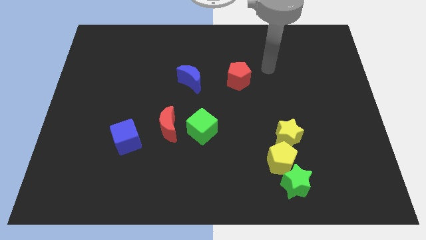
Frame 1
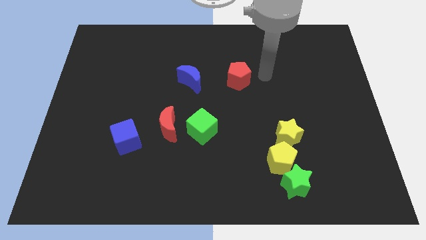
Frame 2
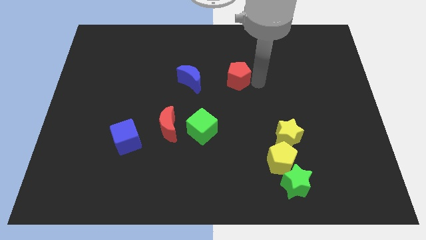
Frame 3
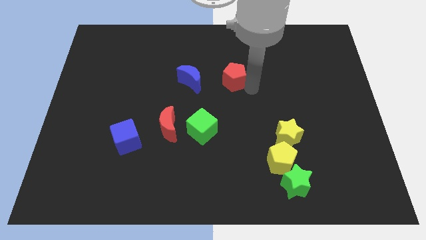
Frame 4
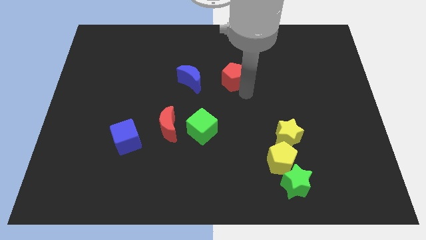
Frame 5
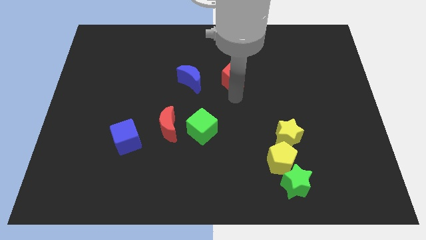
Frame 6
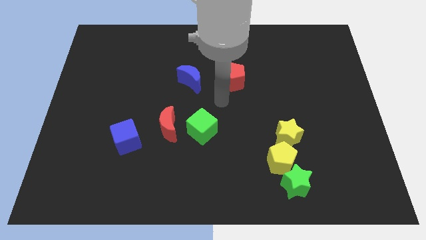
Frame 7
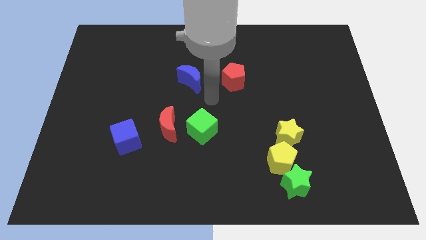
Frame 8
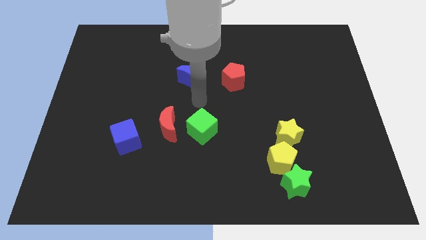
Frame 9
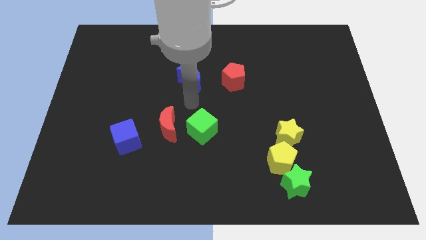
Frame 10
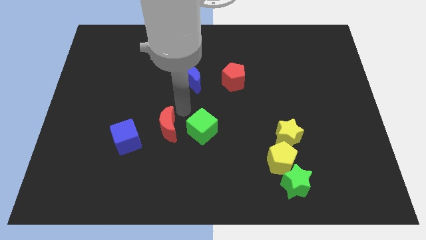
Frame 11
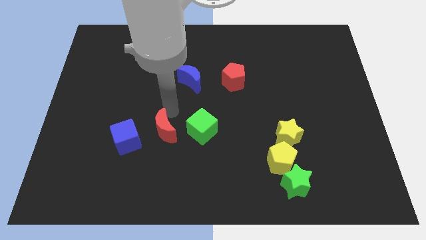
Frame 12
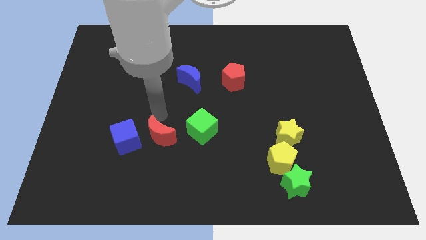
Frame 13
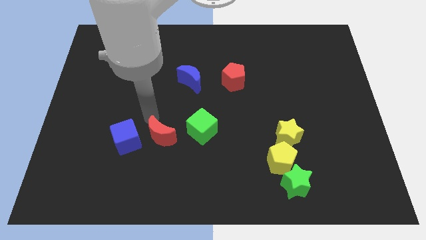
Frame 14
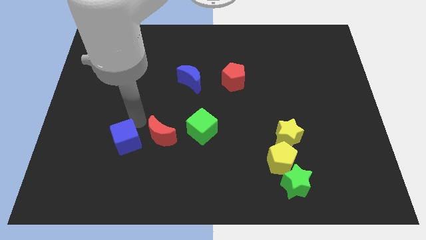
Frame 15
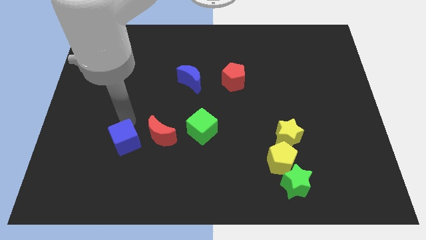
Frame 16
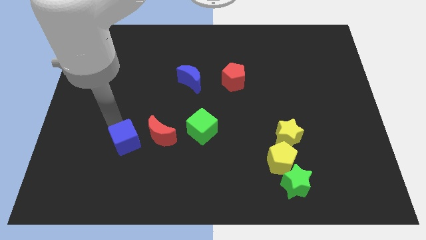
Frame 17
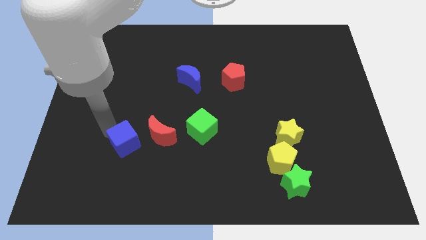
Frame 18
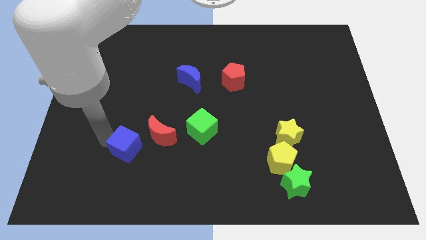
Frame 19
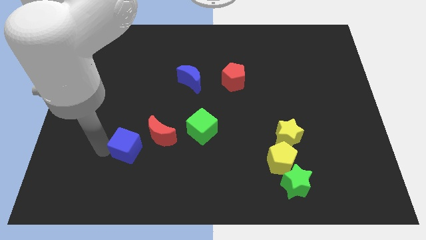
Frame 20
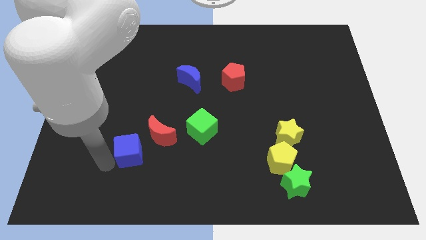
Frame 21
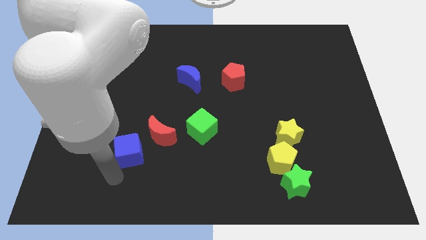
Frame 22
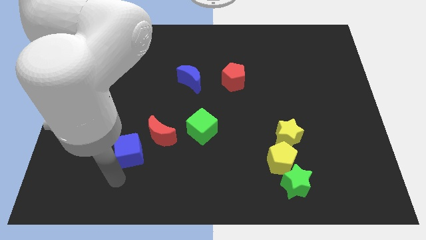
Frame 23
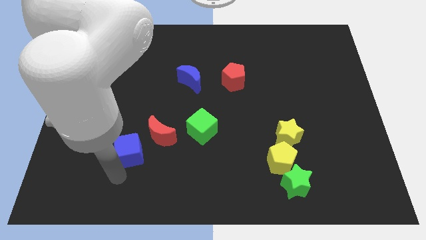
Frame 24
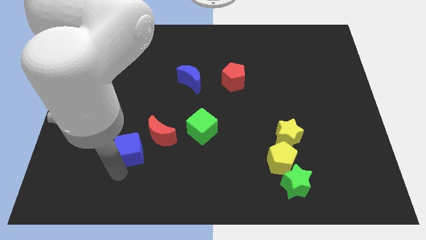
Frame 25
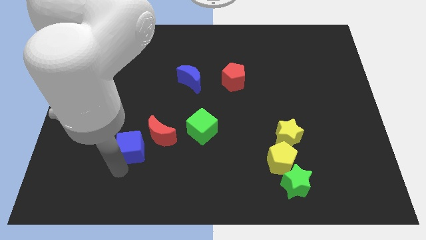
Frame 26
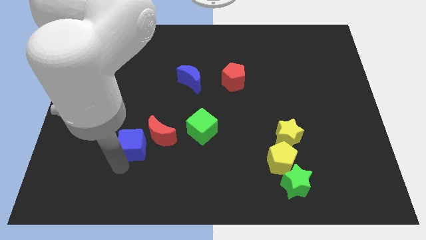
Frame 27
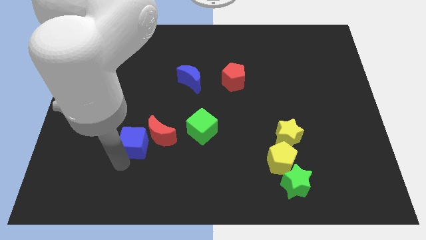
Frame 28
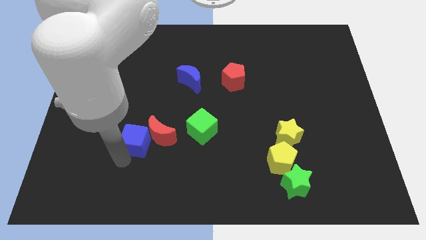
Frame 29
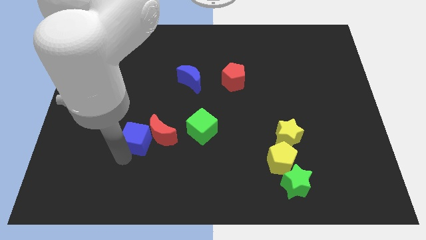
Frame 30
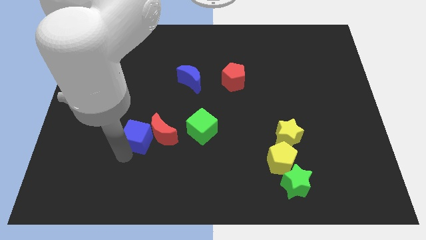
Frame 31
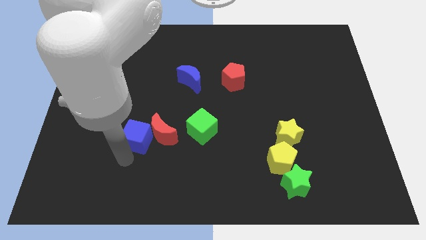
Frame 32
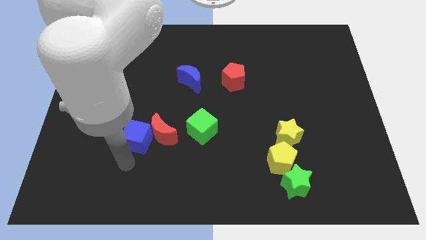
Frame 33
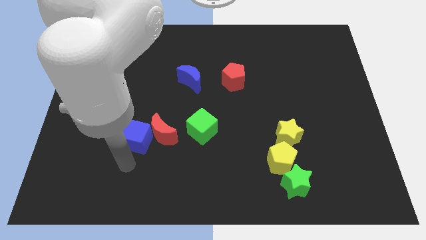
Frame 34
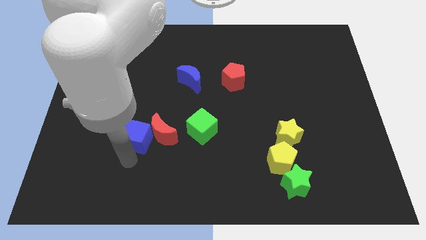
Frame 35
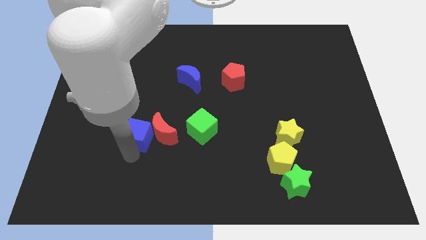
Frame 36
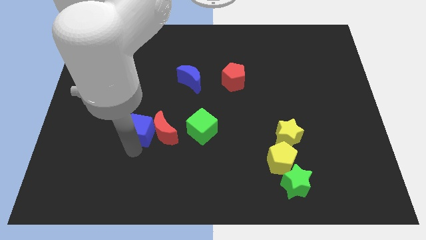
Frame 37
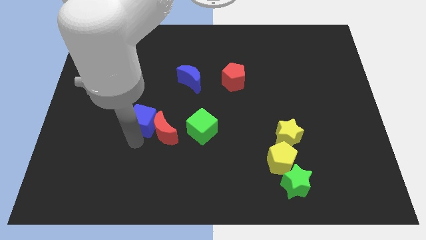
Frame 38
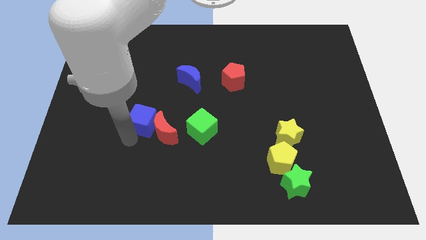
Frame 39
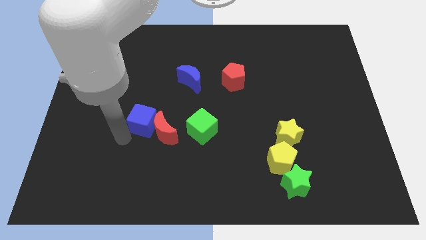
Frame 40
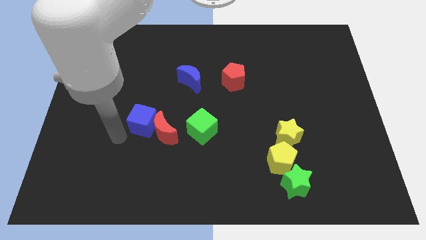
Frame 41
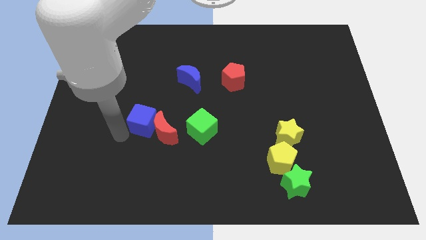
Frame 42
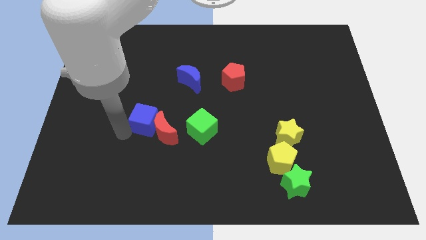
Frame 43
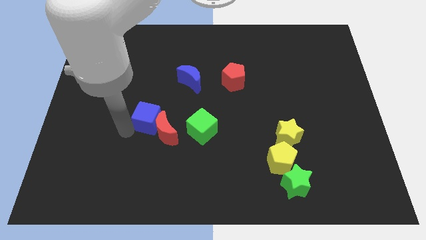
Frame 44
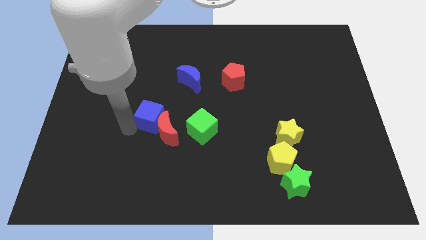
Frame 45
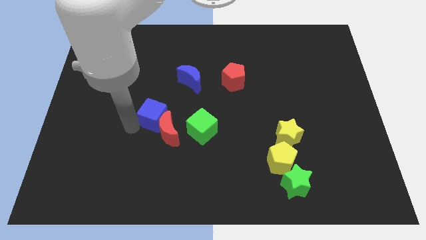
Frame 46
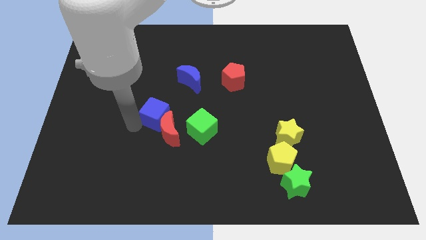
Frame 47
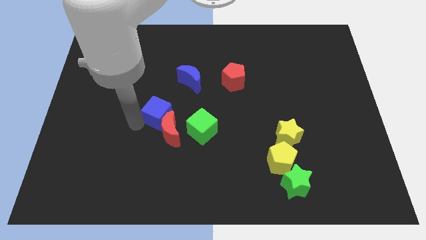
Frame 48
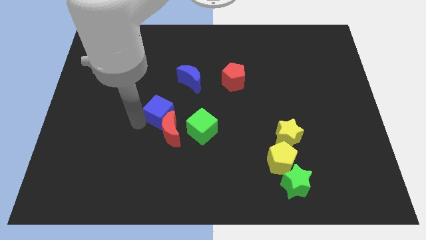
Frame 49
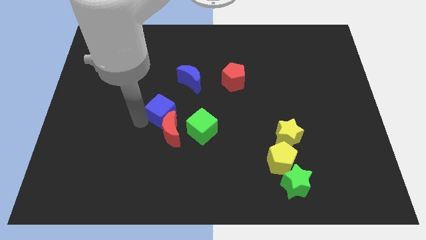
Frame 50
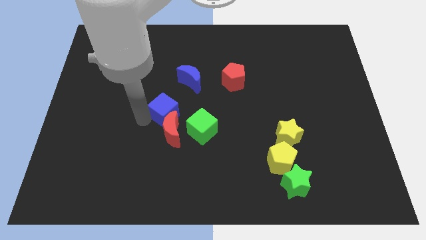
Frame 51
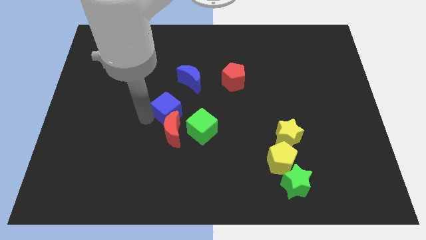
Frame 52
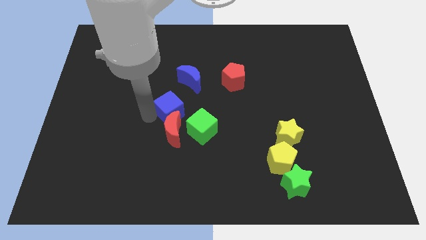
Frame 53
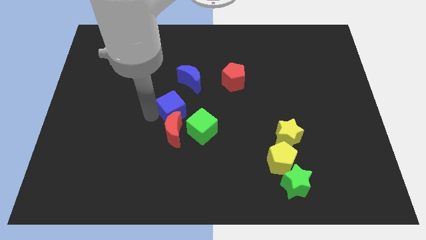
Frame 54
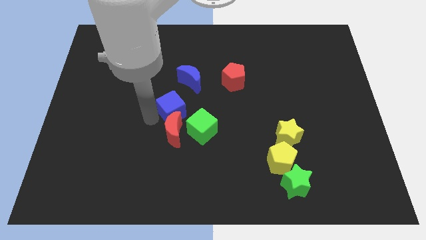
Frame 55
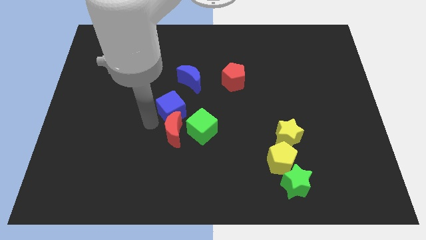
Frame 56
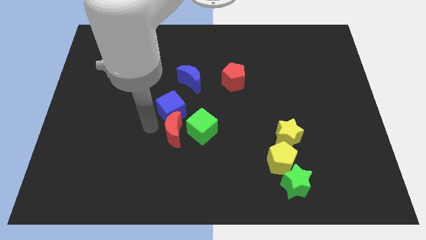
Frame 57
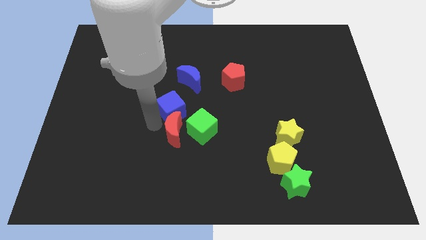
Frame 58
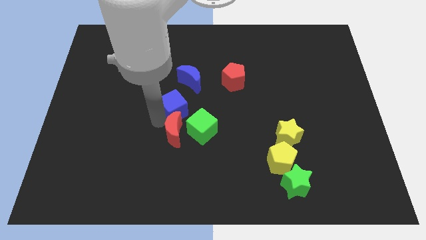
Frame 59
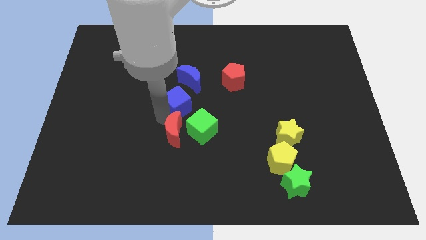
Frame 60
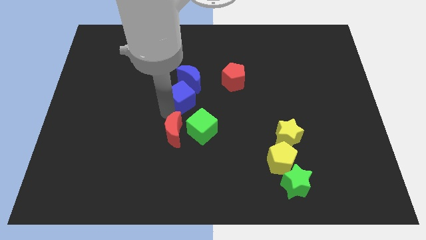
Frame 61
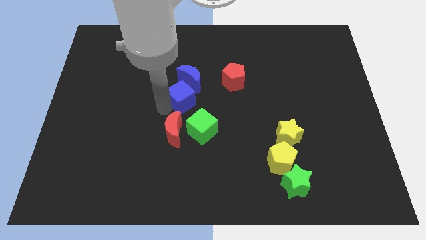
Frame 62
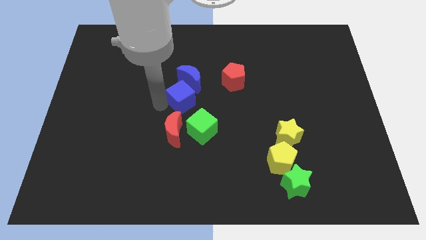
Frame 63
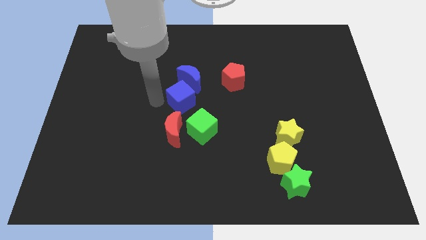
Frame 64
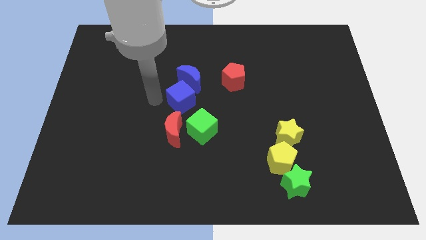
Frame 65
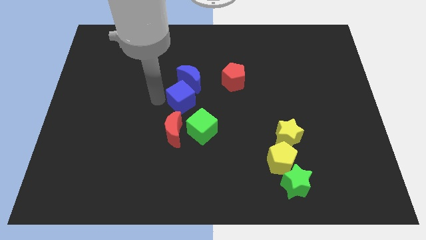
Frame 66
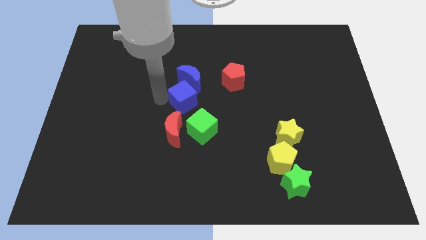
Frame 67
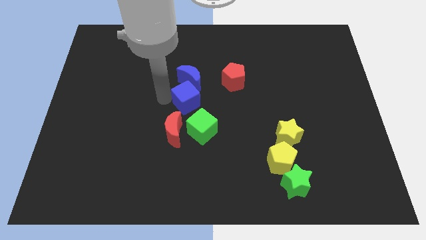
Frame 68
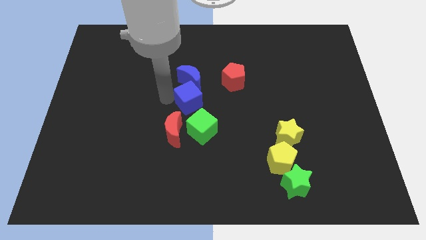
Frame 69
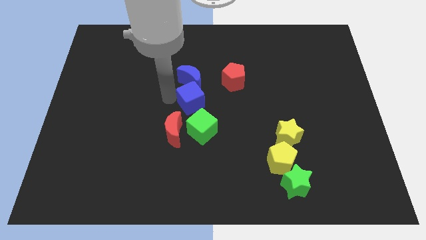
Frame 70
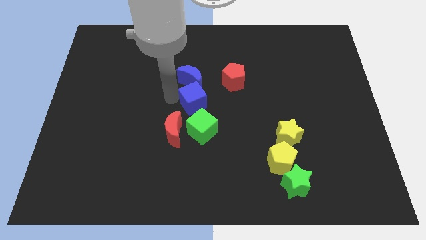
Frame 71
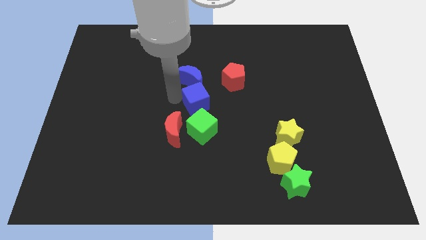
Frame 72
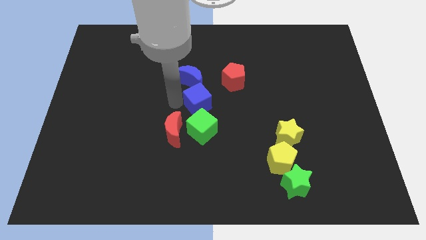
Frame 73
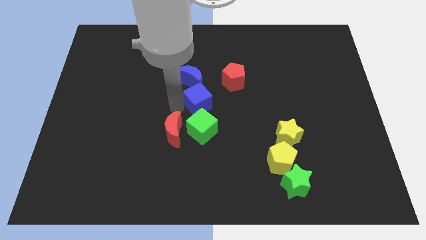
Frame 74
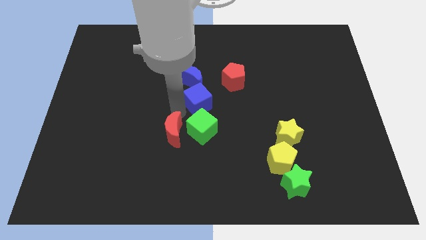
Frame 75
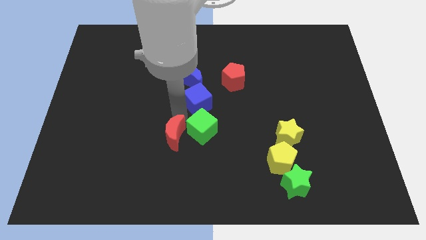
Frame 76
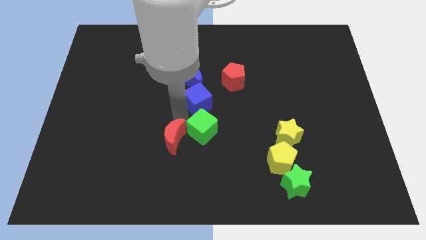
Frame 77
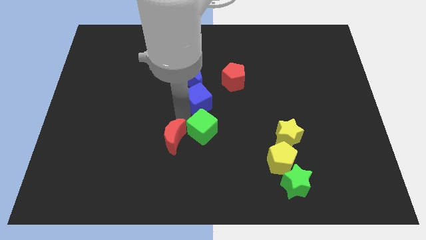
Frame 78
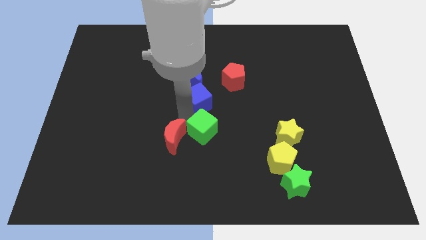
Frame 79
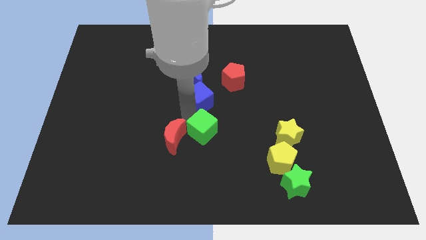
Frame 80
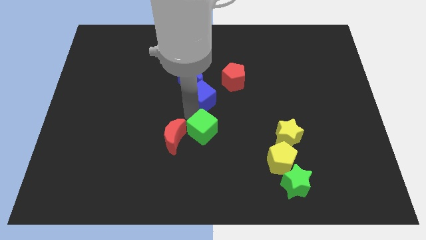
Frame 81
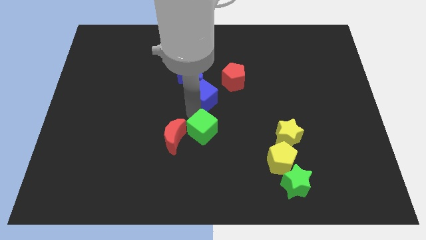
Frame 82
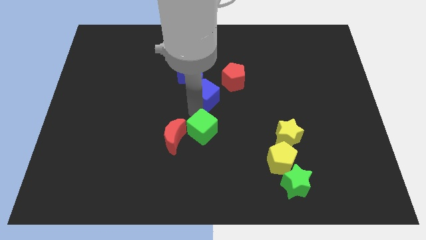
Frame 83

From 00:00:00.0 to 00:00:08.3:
move the blue cube up and right
